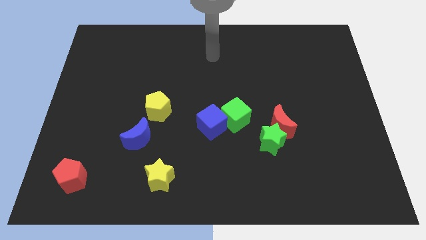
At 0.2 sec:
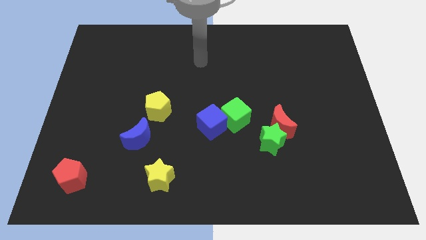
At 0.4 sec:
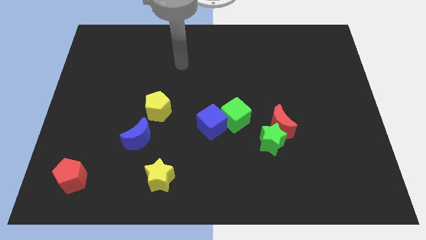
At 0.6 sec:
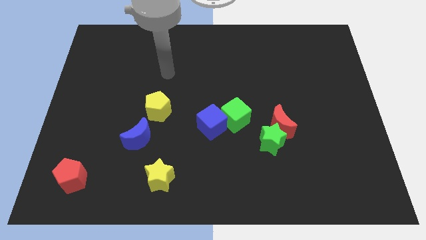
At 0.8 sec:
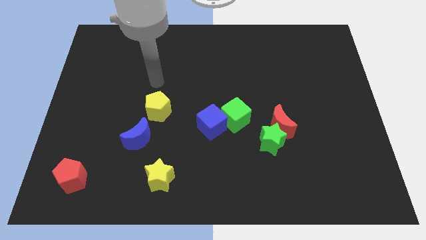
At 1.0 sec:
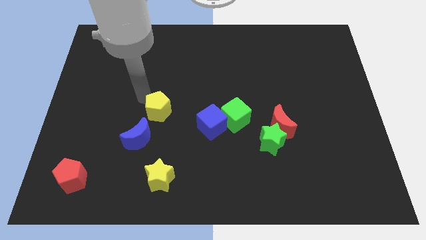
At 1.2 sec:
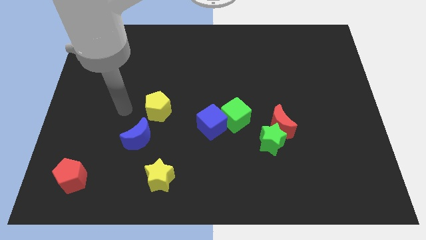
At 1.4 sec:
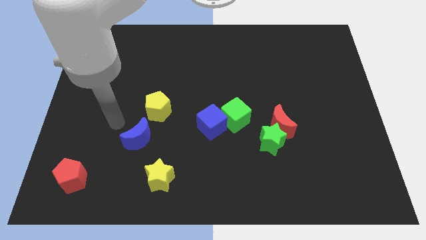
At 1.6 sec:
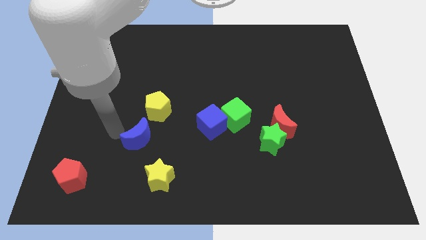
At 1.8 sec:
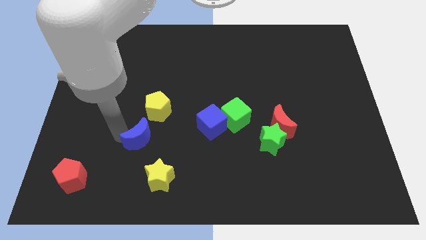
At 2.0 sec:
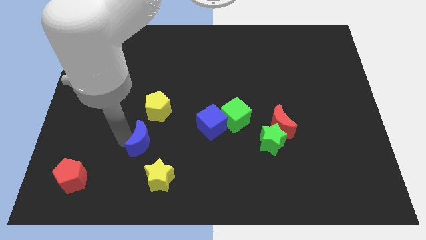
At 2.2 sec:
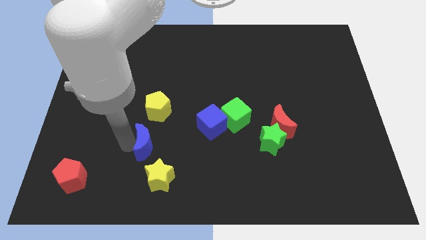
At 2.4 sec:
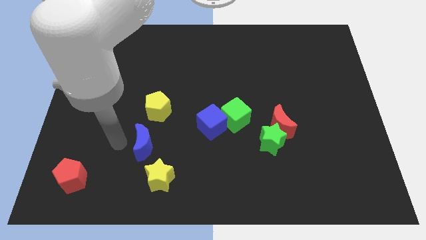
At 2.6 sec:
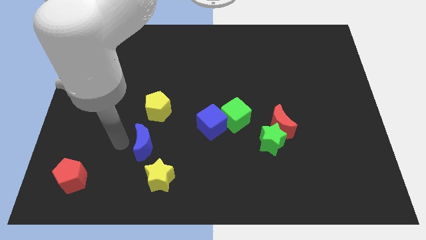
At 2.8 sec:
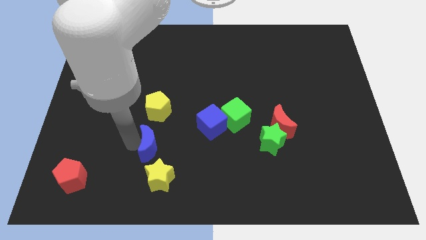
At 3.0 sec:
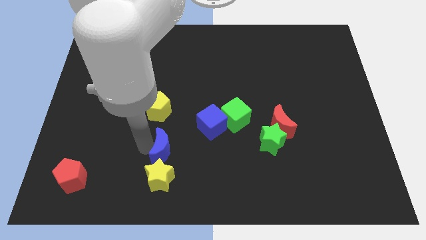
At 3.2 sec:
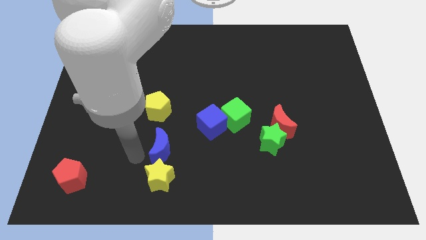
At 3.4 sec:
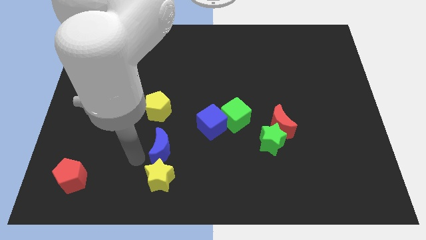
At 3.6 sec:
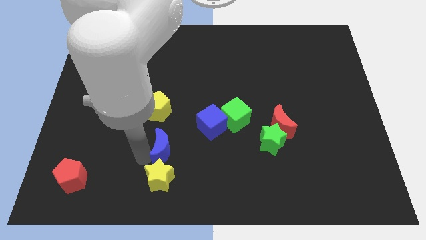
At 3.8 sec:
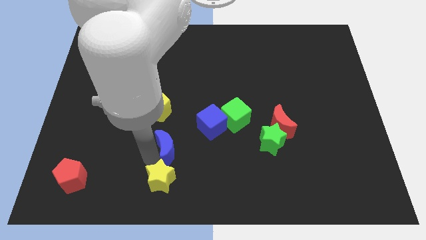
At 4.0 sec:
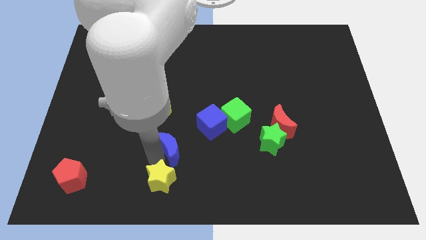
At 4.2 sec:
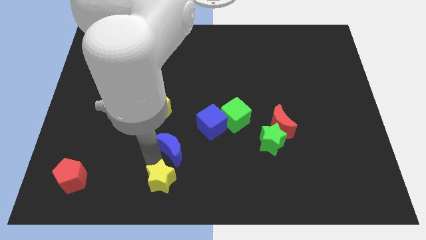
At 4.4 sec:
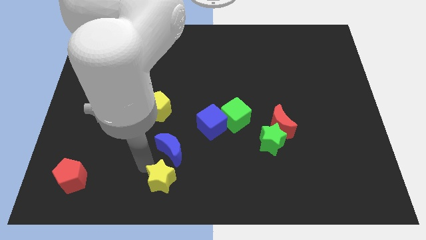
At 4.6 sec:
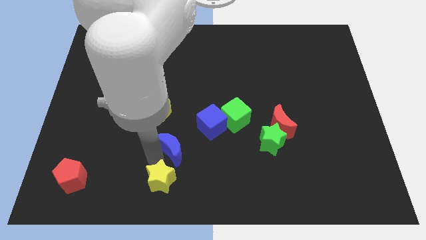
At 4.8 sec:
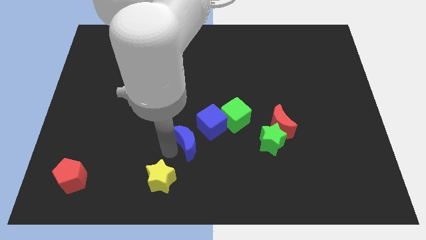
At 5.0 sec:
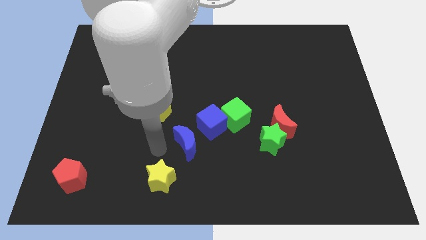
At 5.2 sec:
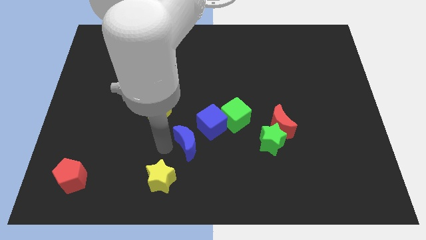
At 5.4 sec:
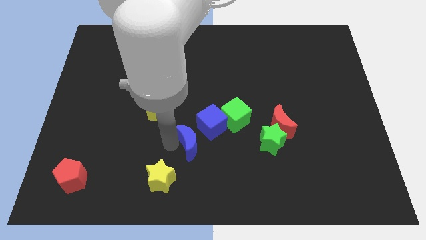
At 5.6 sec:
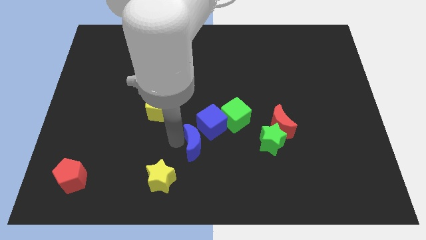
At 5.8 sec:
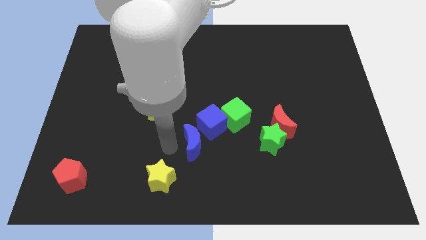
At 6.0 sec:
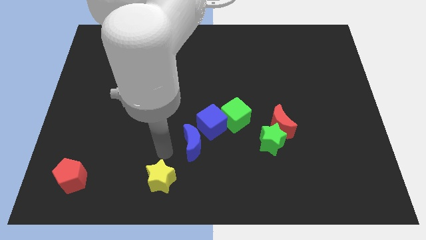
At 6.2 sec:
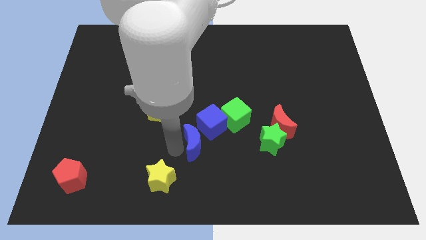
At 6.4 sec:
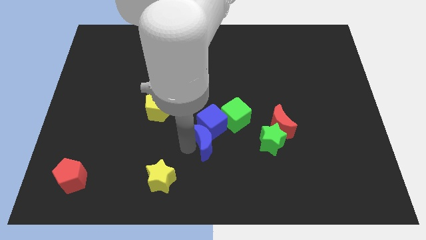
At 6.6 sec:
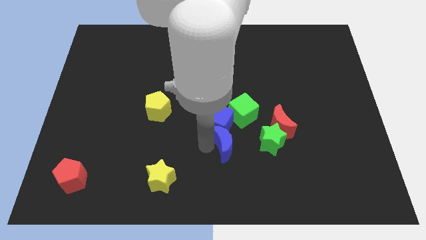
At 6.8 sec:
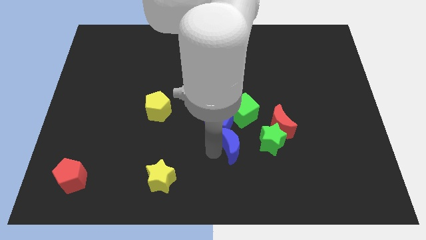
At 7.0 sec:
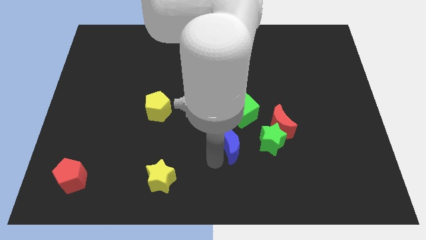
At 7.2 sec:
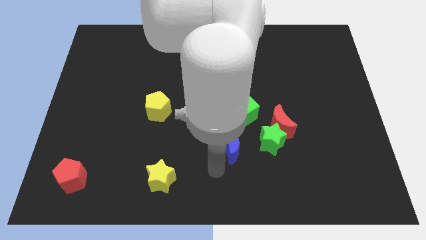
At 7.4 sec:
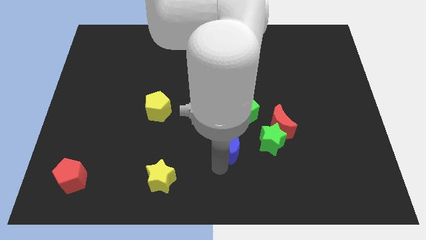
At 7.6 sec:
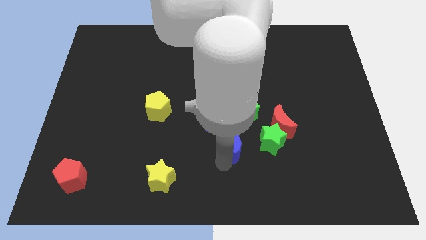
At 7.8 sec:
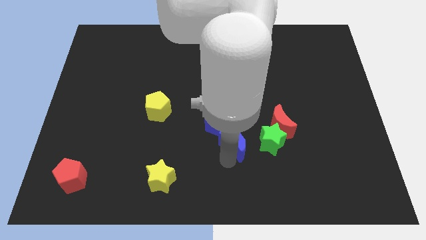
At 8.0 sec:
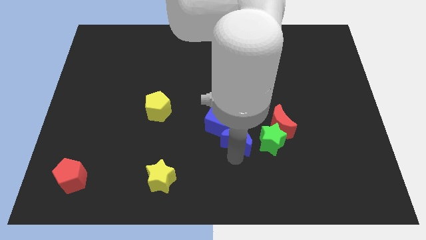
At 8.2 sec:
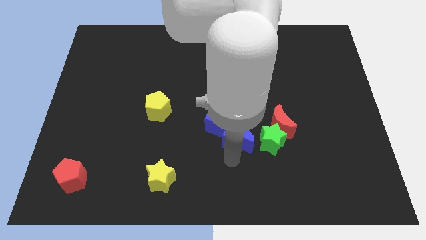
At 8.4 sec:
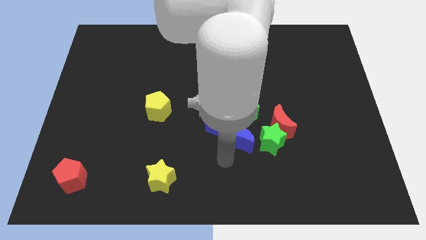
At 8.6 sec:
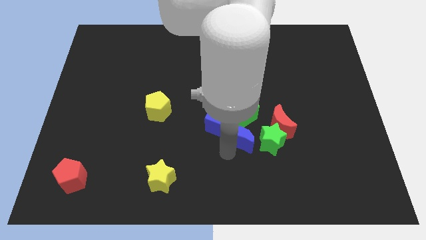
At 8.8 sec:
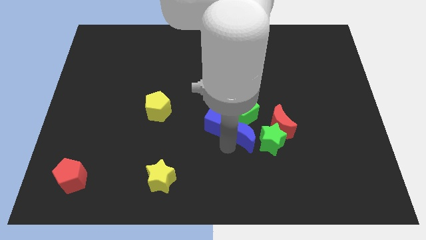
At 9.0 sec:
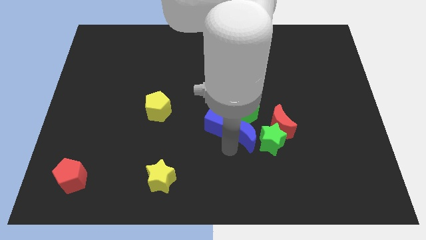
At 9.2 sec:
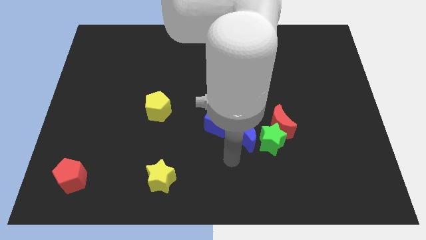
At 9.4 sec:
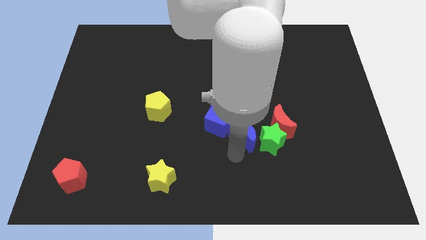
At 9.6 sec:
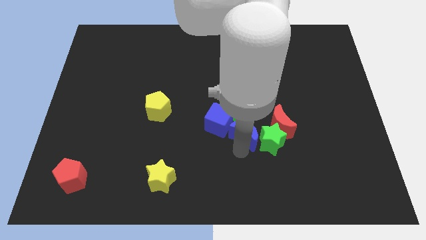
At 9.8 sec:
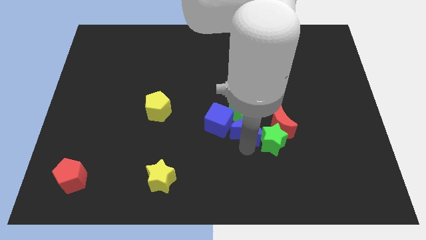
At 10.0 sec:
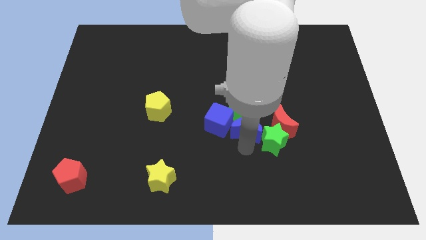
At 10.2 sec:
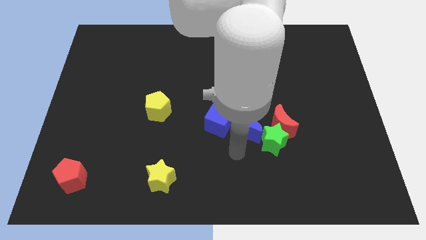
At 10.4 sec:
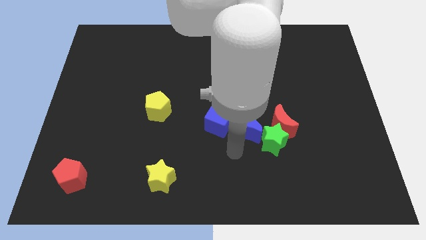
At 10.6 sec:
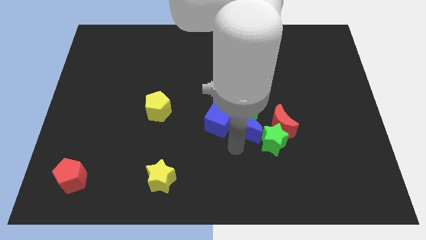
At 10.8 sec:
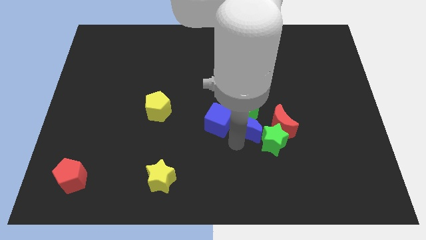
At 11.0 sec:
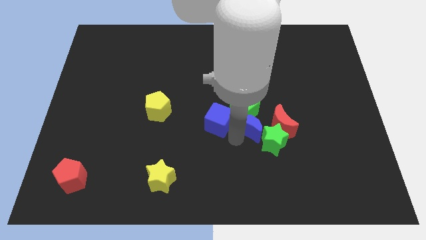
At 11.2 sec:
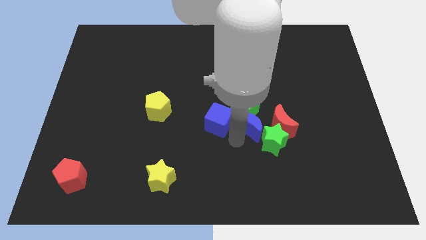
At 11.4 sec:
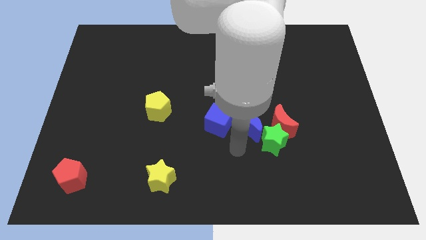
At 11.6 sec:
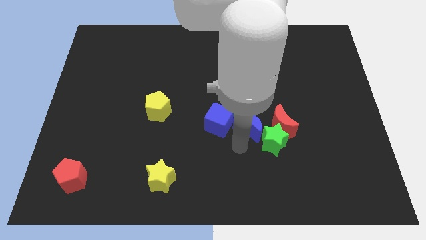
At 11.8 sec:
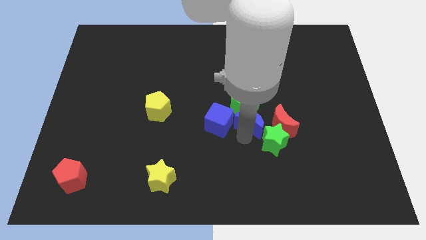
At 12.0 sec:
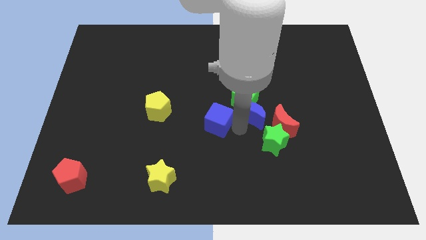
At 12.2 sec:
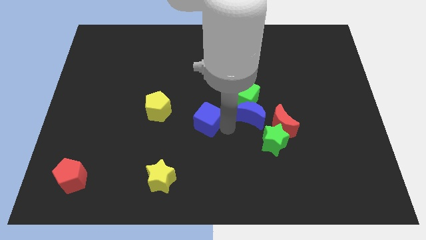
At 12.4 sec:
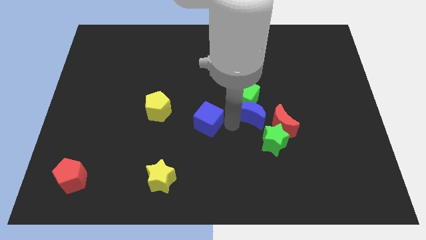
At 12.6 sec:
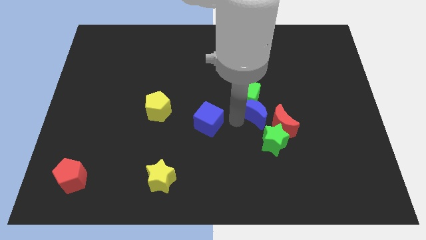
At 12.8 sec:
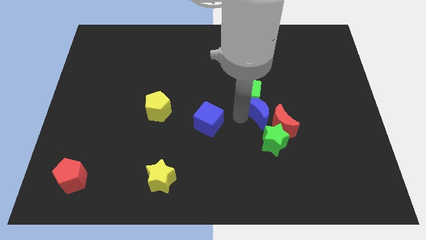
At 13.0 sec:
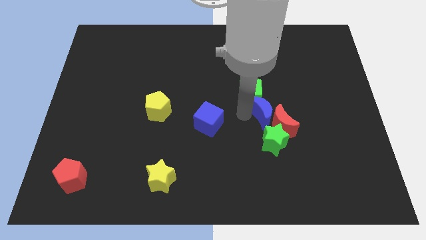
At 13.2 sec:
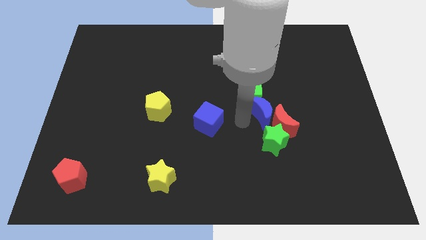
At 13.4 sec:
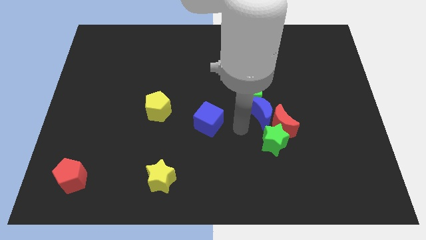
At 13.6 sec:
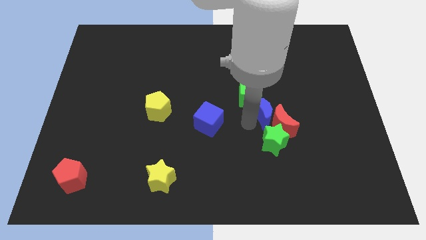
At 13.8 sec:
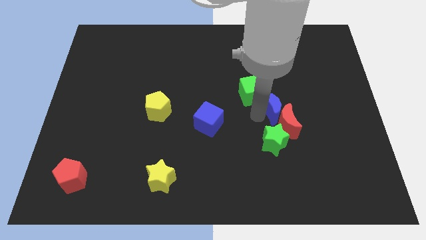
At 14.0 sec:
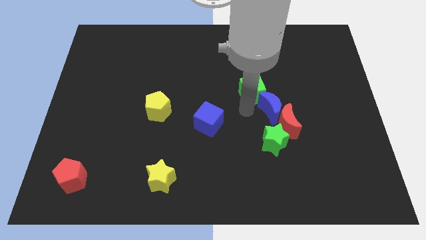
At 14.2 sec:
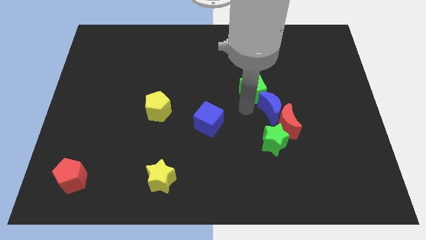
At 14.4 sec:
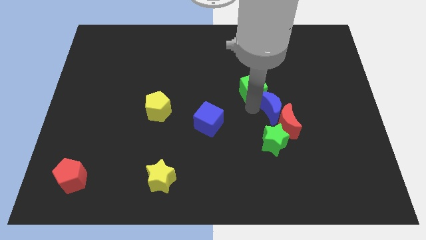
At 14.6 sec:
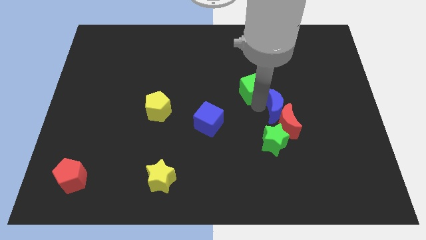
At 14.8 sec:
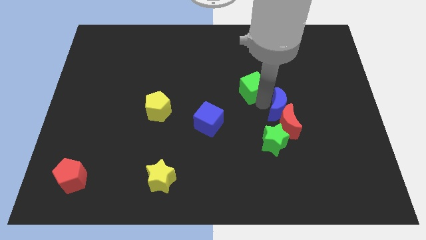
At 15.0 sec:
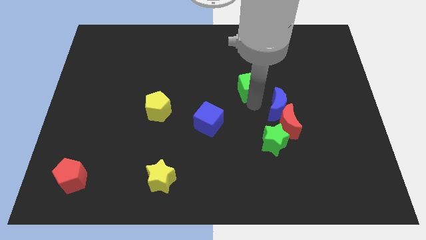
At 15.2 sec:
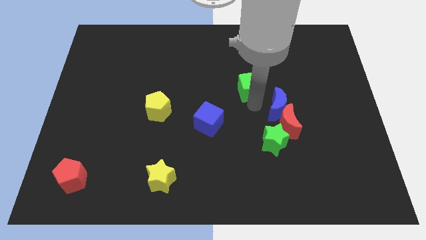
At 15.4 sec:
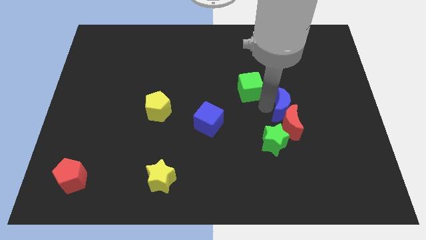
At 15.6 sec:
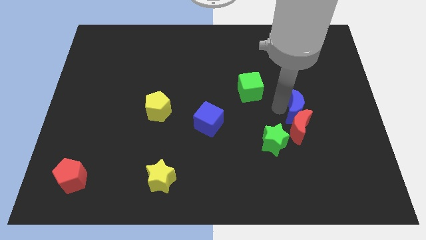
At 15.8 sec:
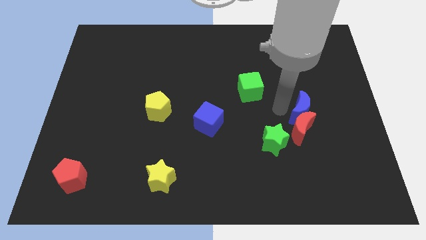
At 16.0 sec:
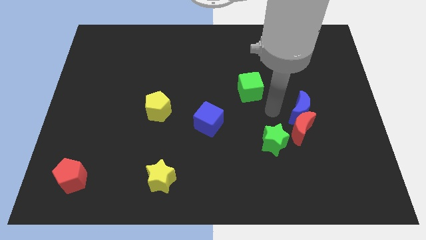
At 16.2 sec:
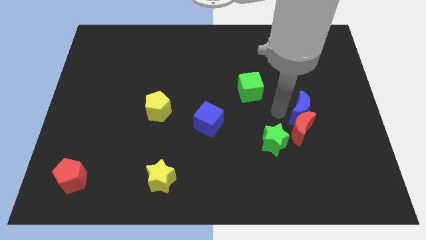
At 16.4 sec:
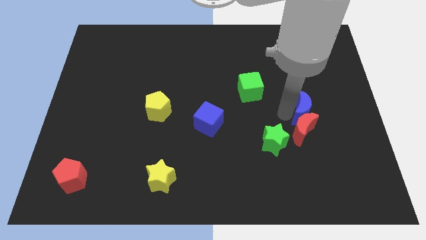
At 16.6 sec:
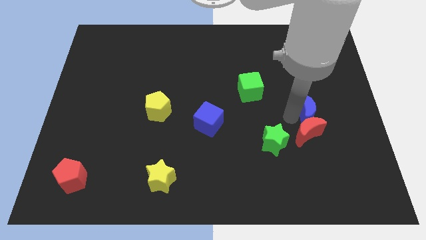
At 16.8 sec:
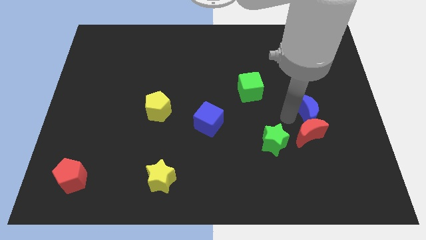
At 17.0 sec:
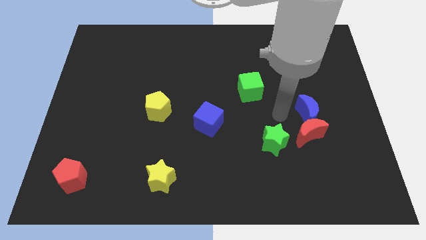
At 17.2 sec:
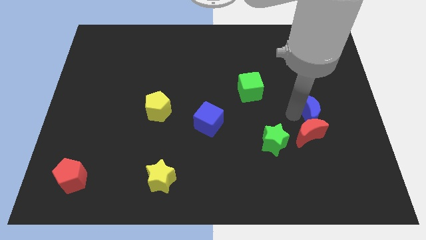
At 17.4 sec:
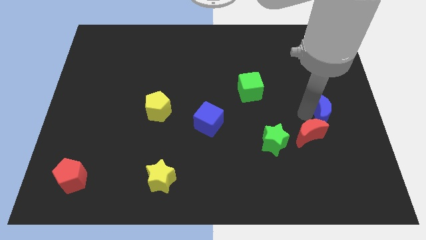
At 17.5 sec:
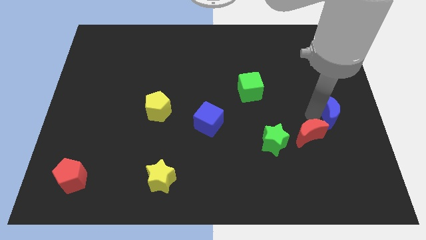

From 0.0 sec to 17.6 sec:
put the blue moon to the right side
